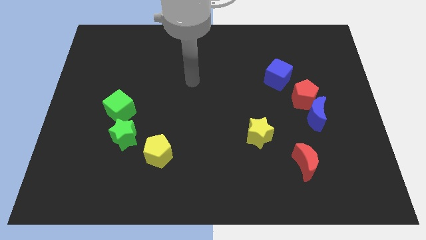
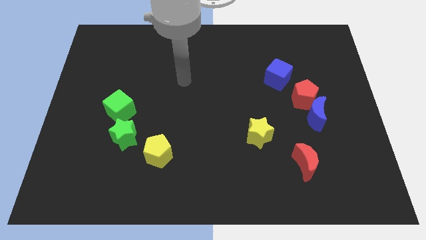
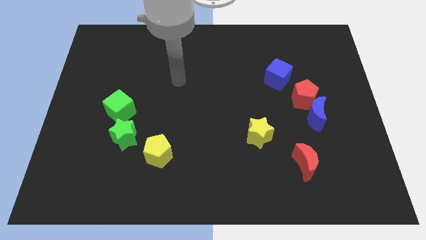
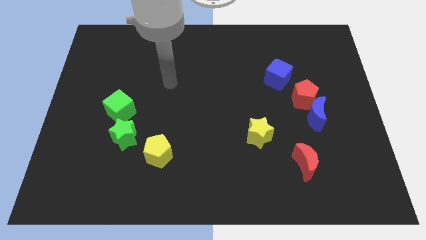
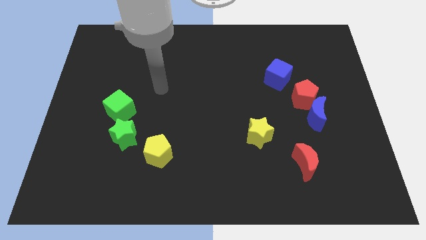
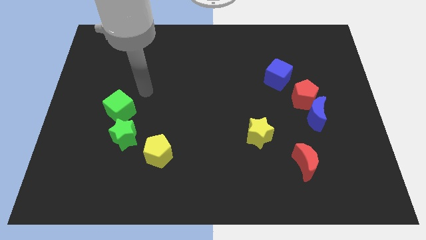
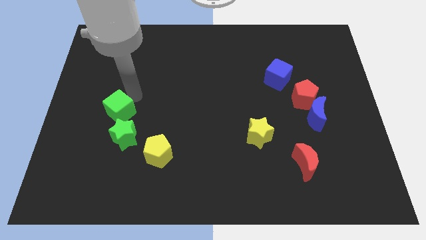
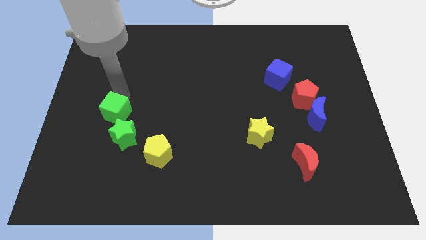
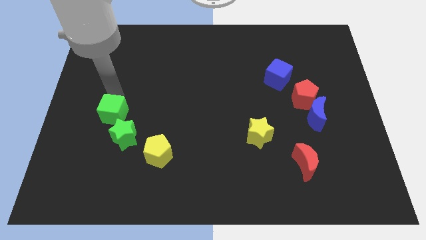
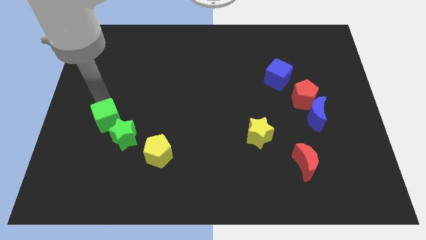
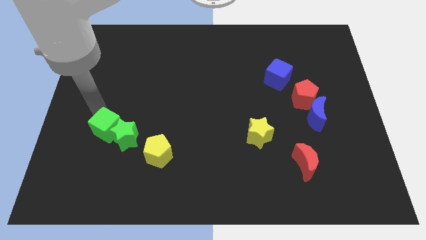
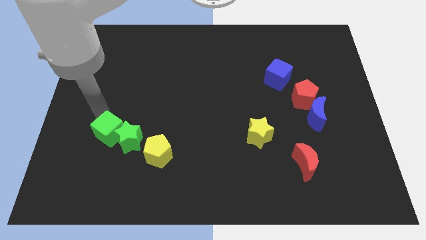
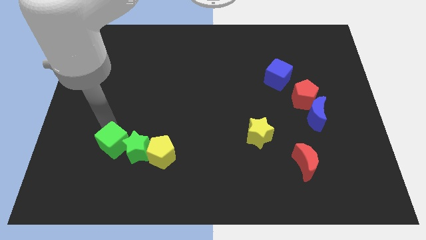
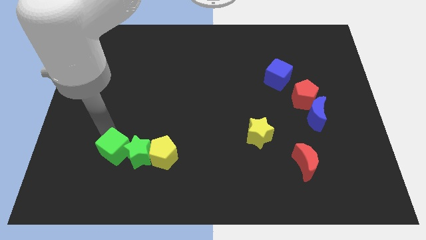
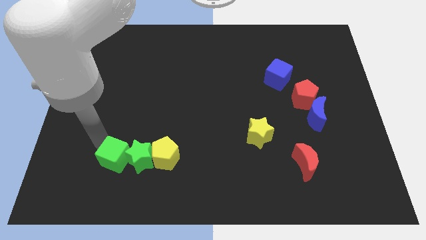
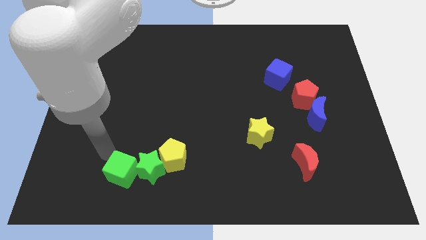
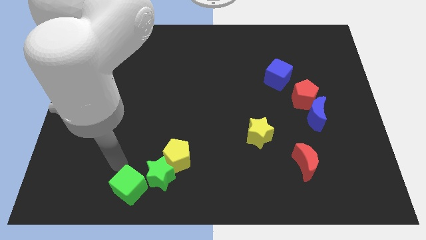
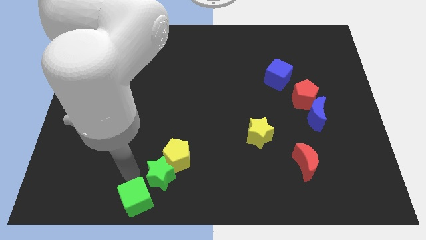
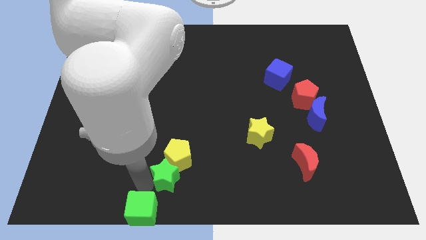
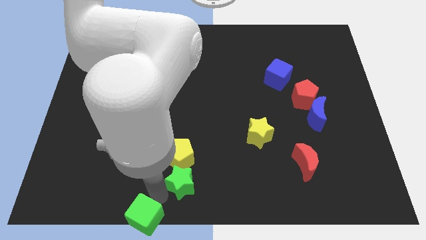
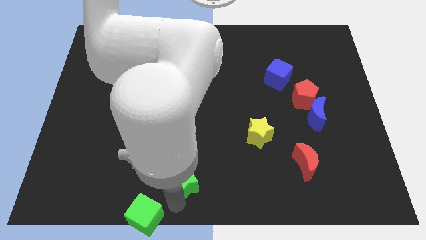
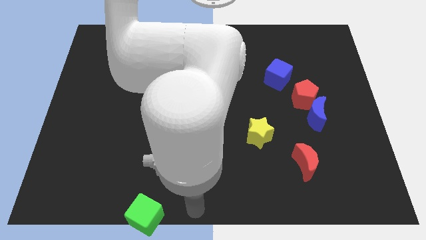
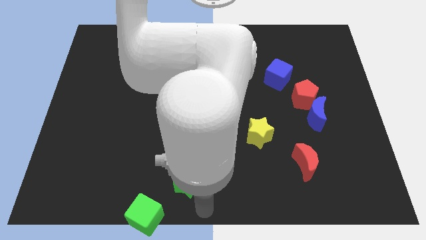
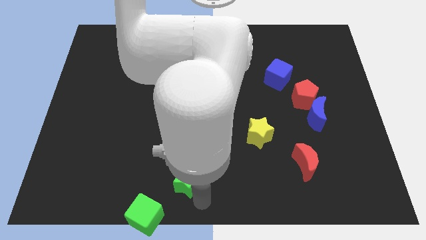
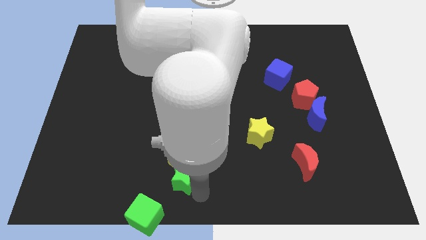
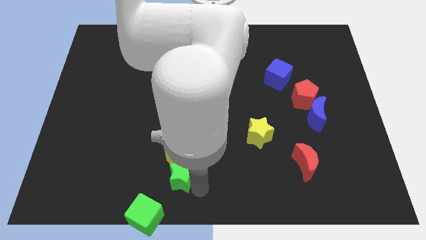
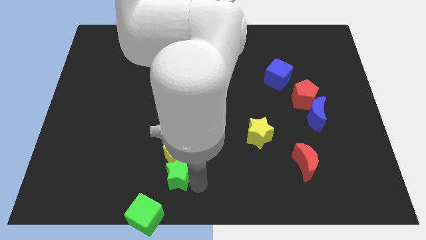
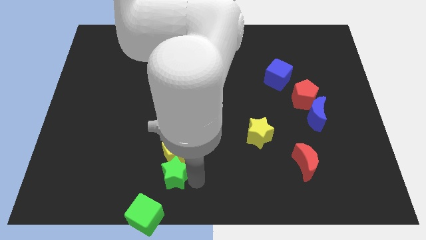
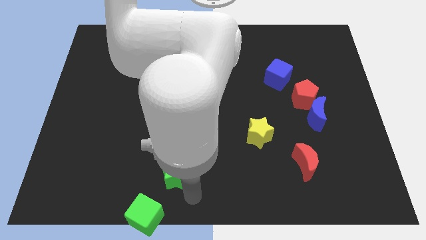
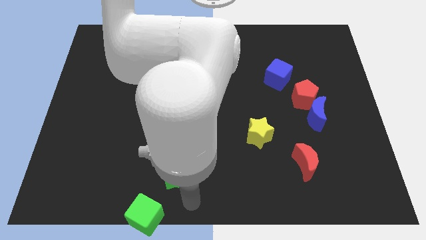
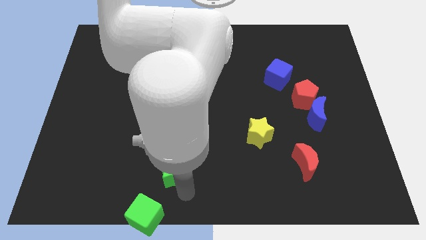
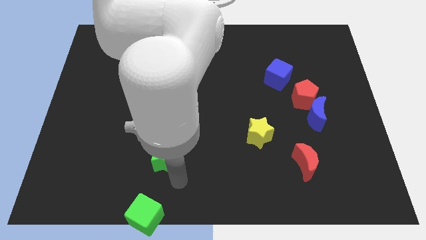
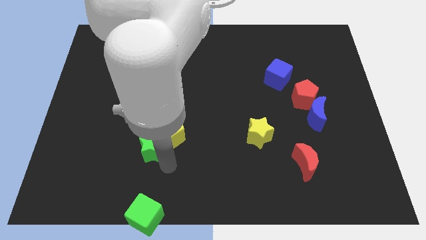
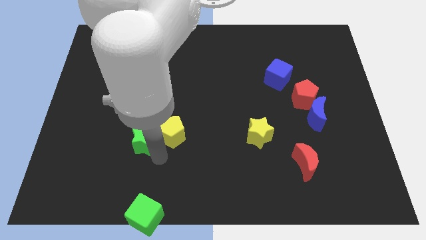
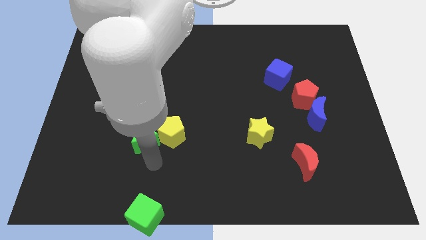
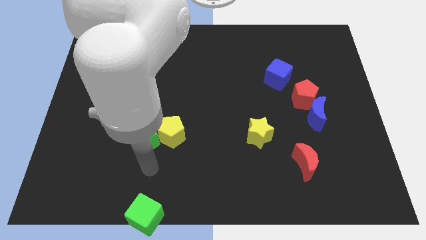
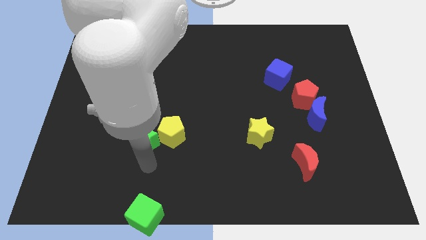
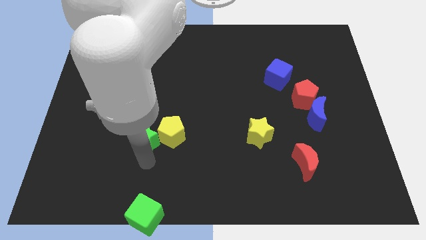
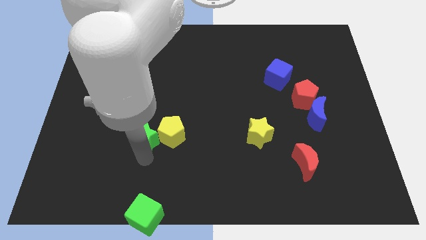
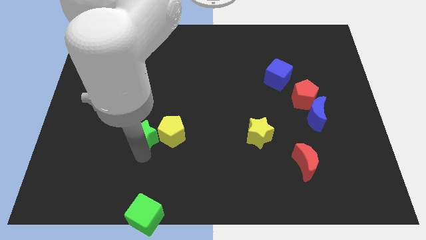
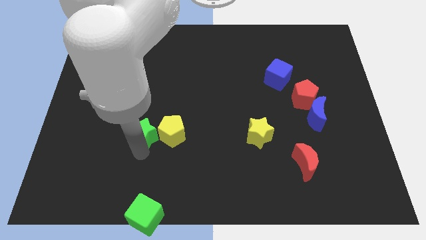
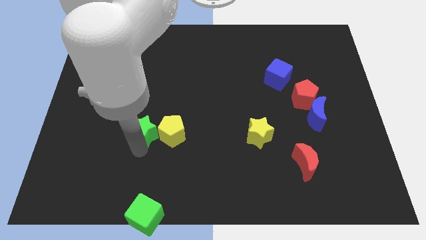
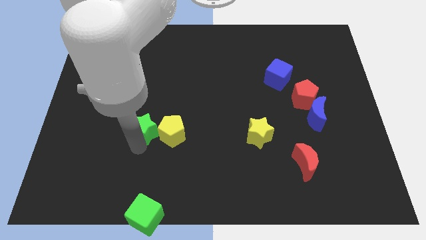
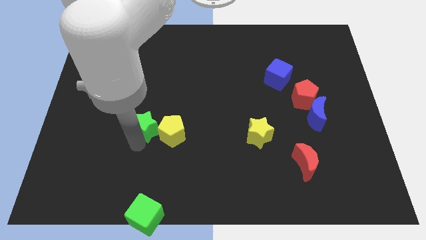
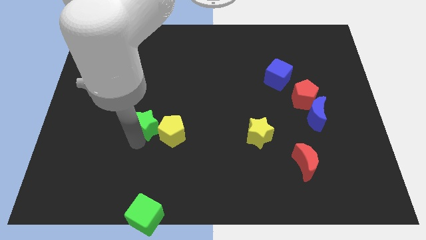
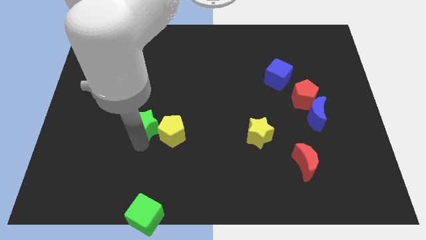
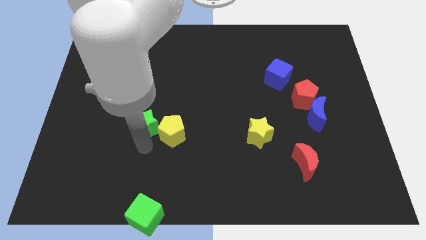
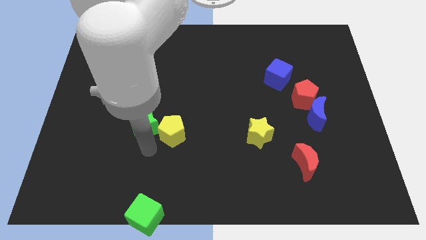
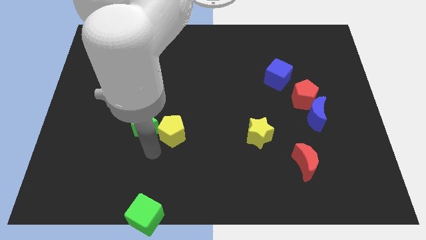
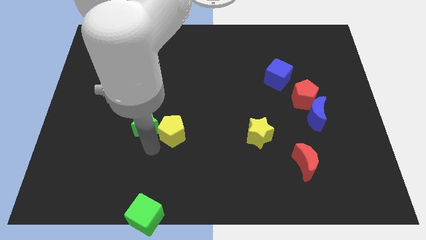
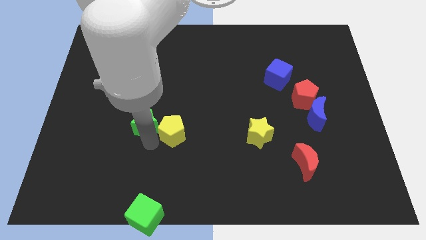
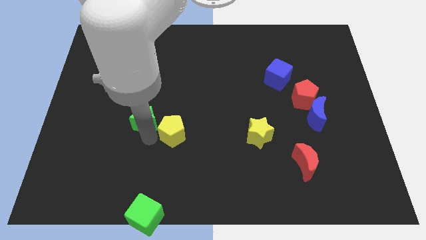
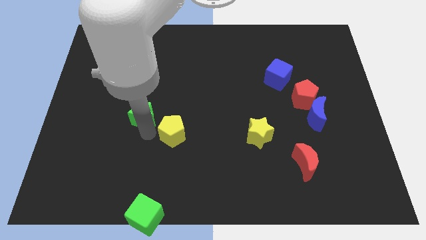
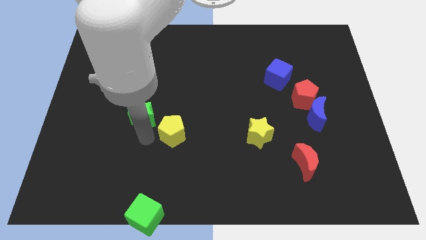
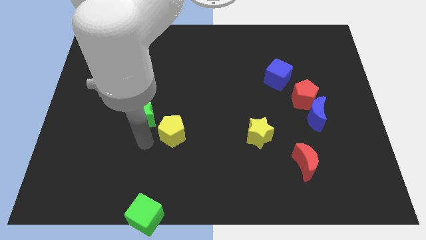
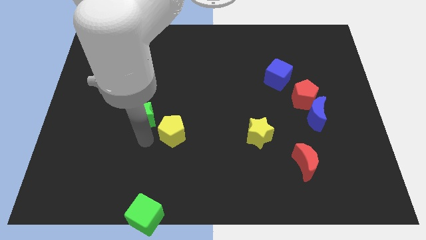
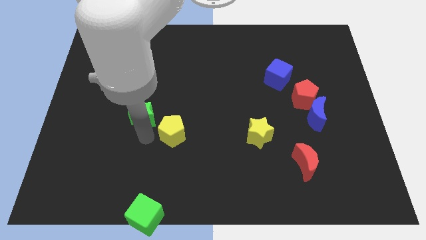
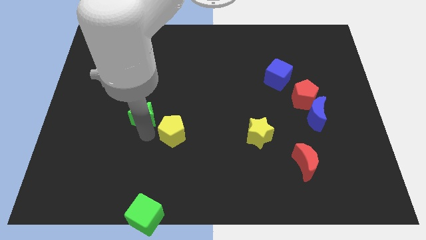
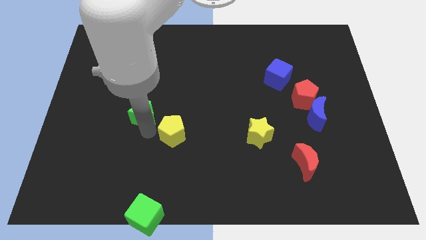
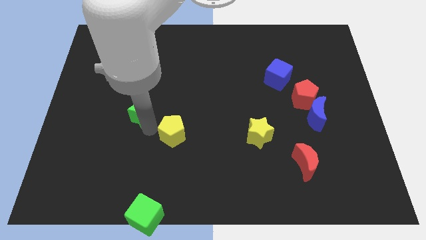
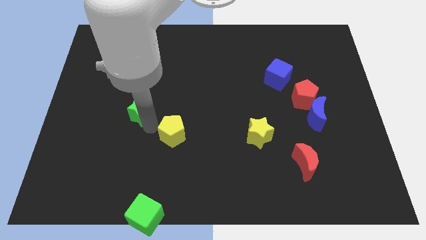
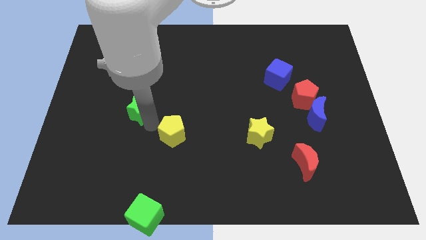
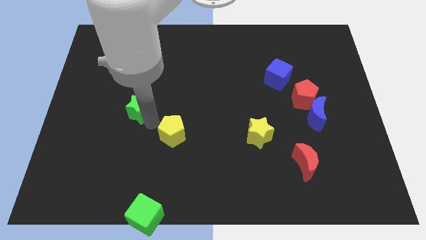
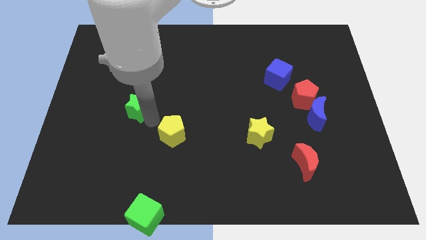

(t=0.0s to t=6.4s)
slightly push the green star upwards

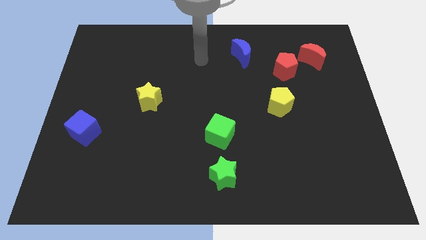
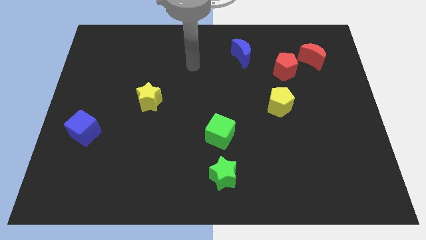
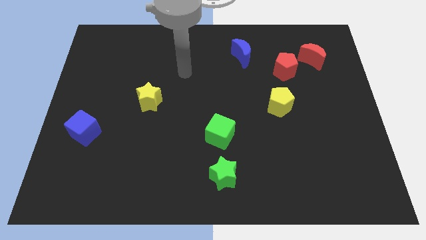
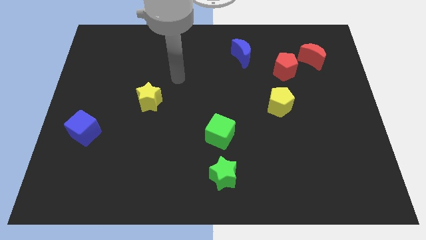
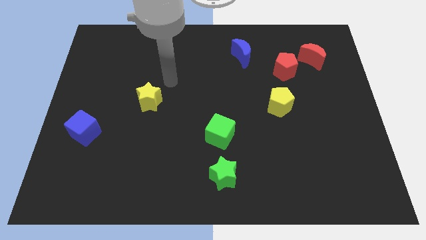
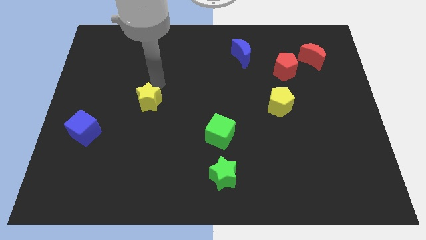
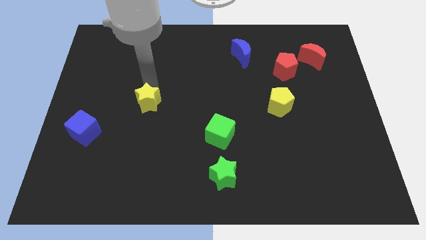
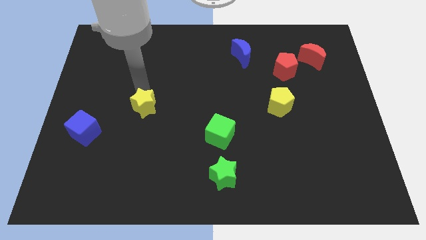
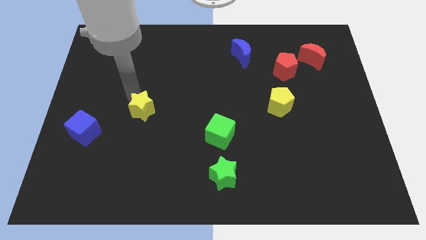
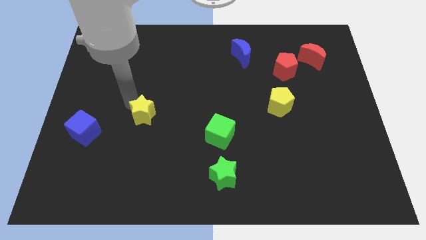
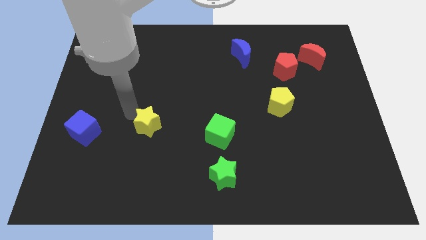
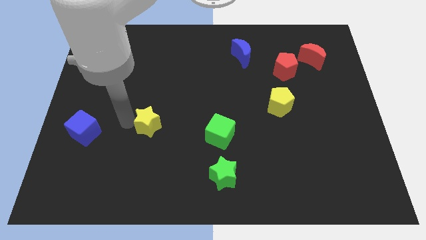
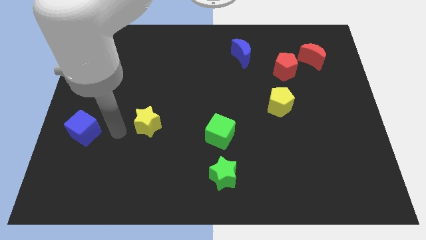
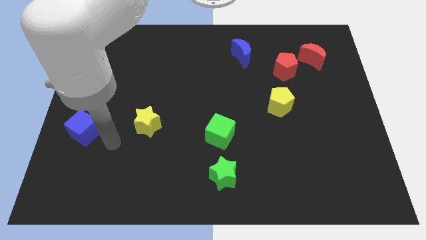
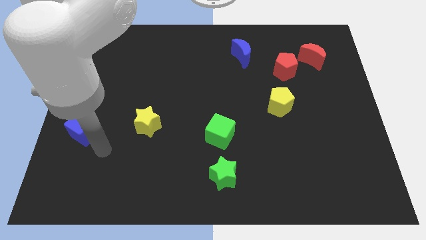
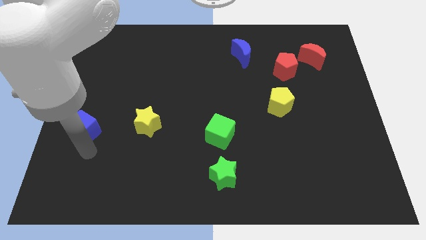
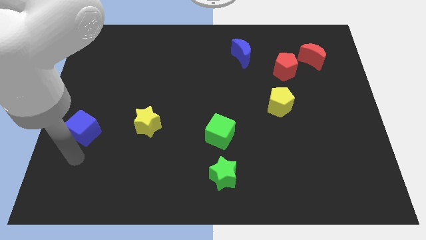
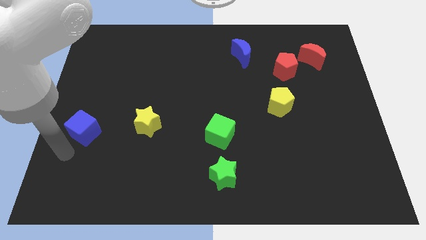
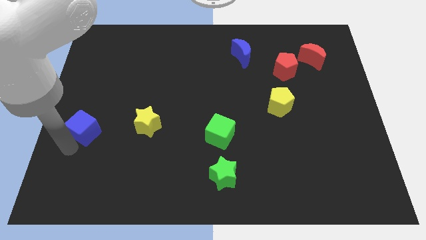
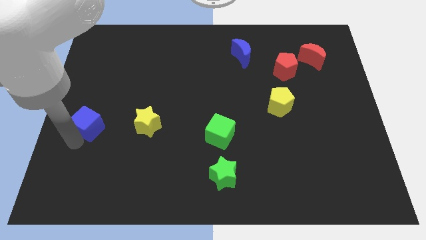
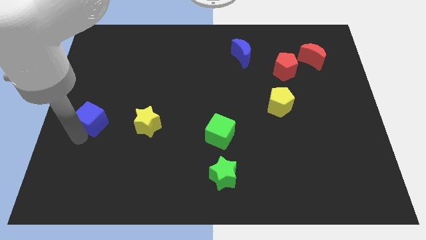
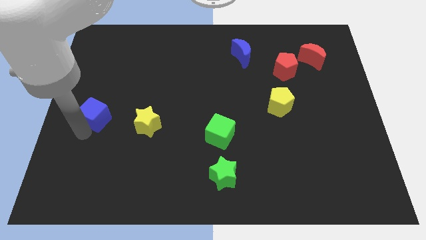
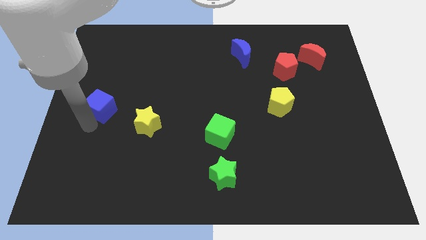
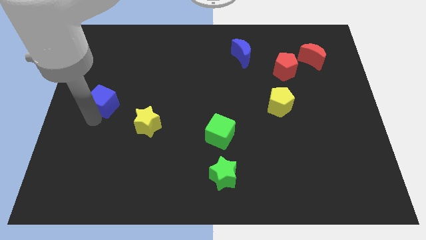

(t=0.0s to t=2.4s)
move the blue cube somewhat upwards and then to the right
